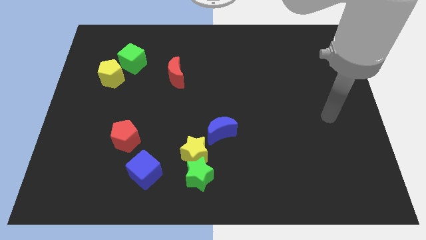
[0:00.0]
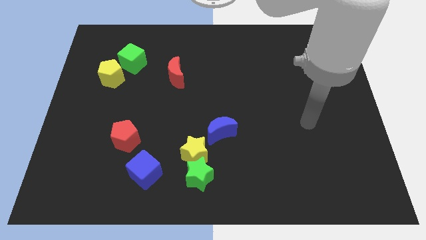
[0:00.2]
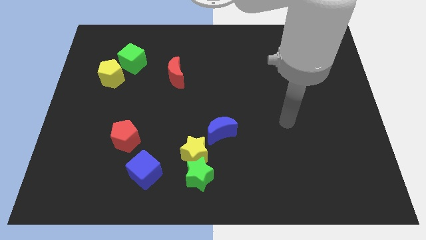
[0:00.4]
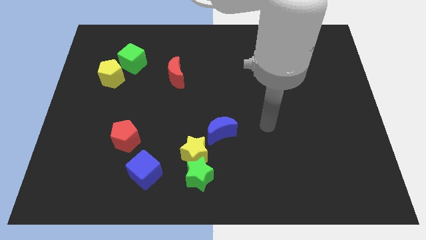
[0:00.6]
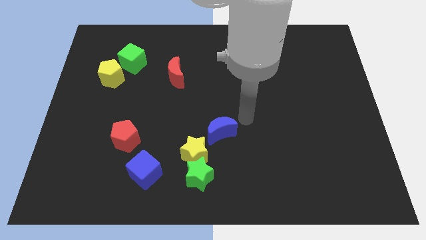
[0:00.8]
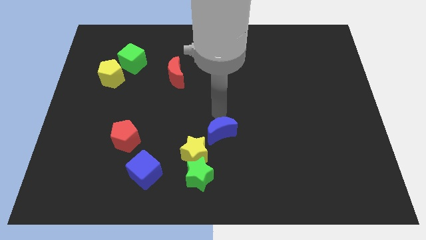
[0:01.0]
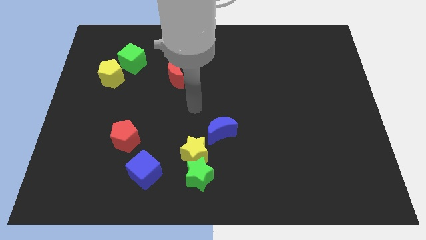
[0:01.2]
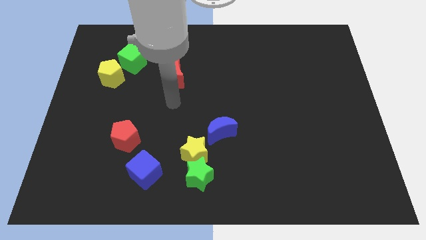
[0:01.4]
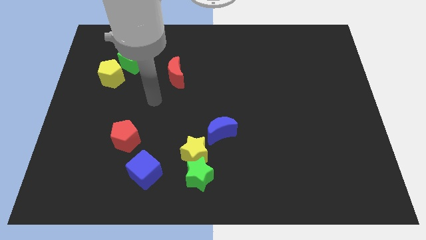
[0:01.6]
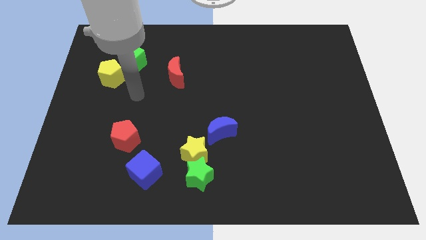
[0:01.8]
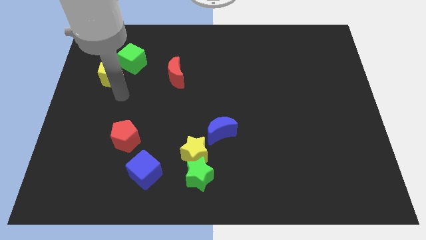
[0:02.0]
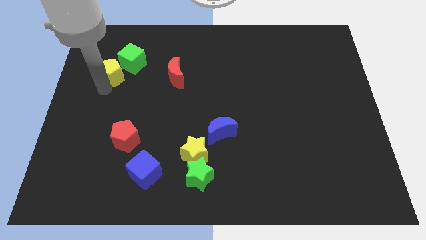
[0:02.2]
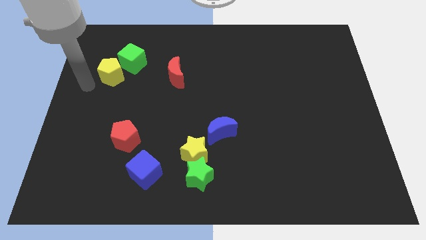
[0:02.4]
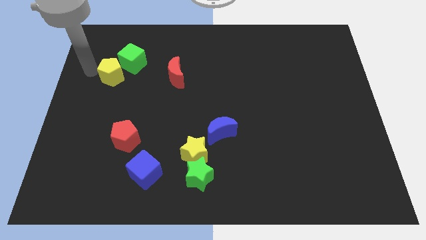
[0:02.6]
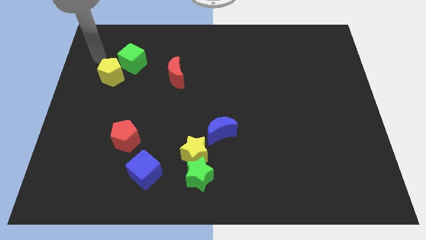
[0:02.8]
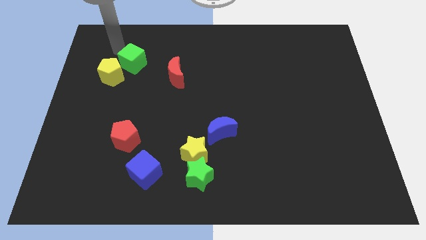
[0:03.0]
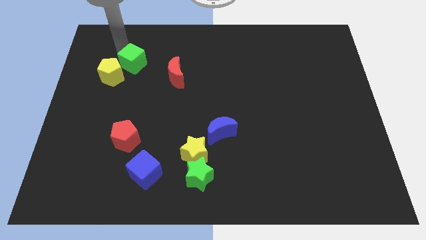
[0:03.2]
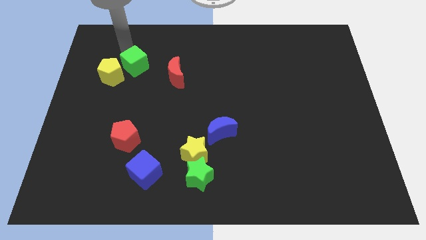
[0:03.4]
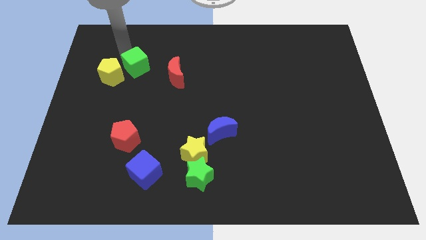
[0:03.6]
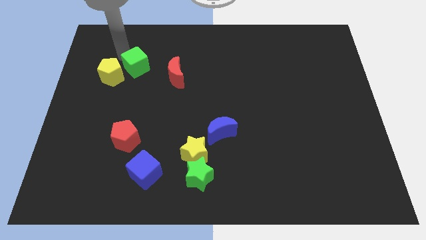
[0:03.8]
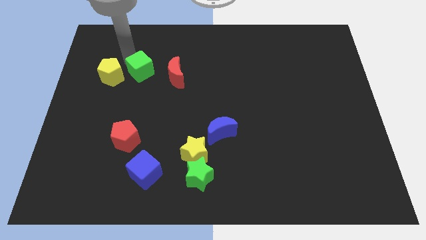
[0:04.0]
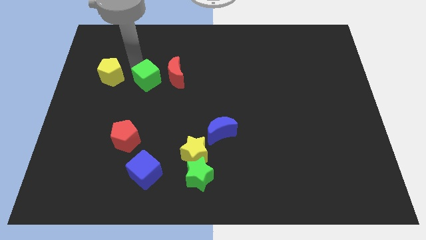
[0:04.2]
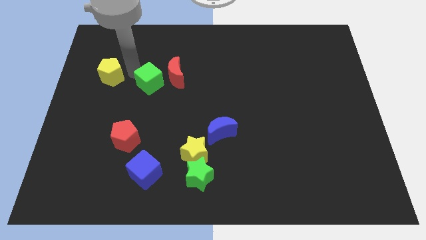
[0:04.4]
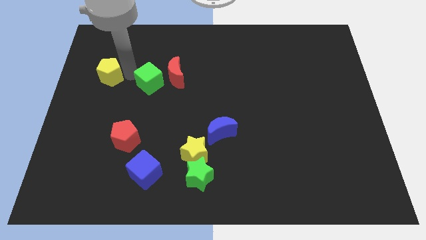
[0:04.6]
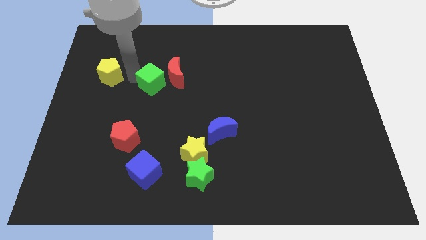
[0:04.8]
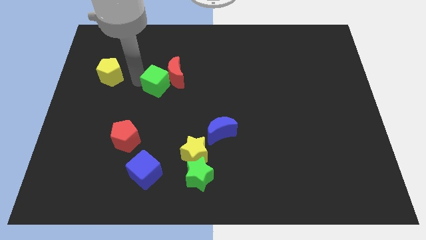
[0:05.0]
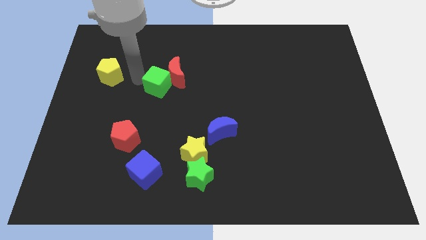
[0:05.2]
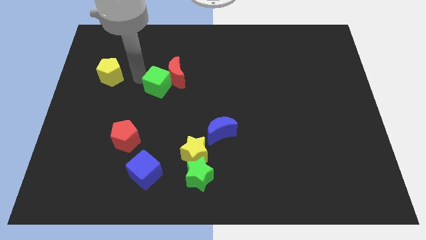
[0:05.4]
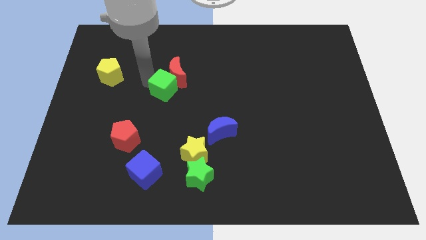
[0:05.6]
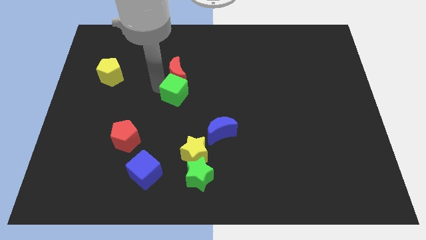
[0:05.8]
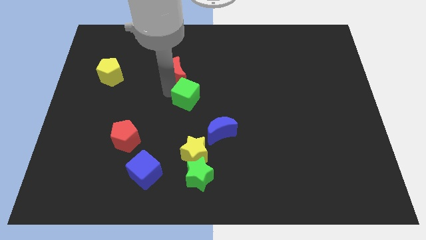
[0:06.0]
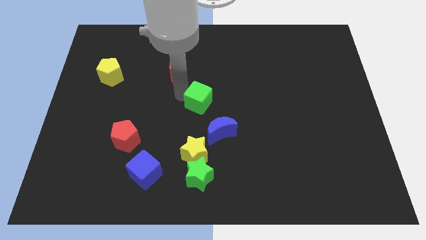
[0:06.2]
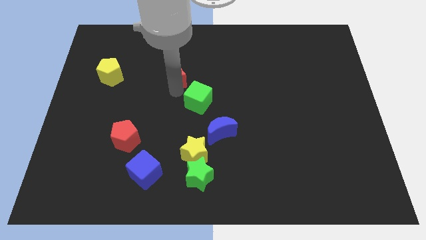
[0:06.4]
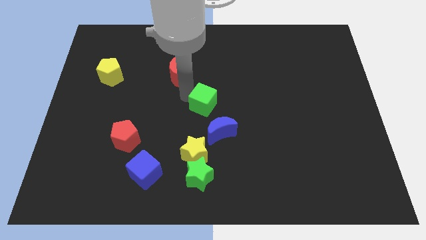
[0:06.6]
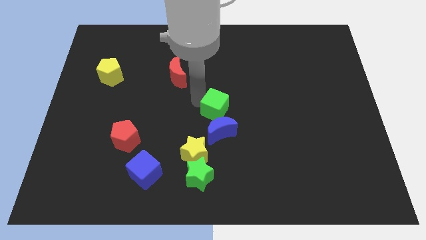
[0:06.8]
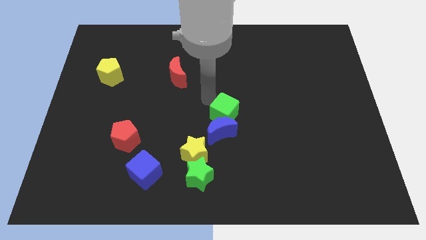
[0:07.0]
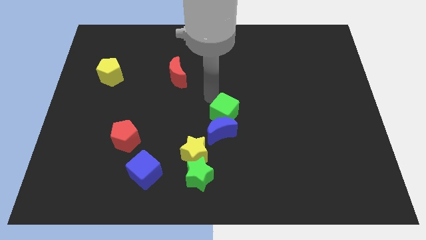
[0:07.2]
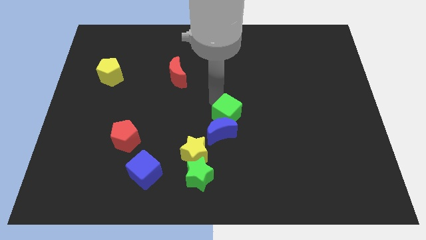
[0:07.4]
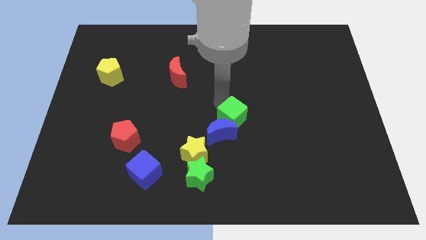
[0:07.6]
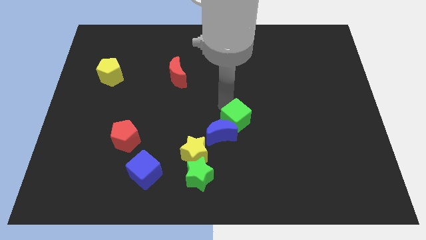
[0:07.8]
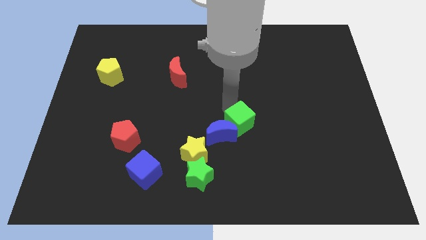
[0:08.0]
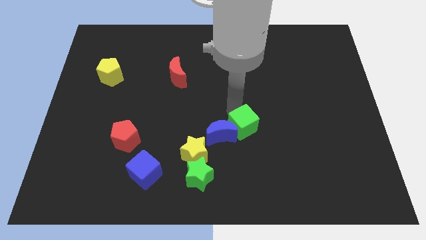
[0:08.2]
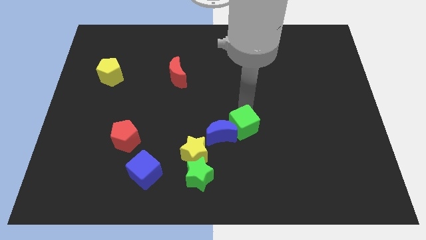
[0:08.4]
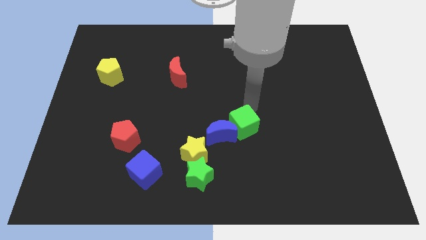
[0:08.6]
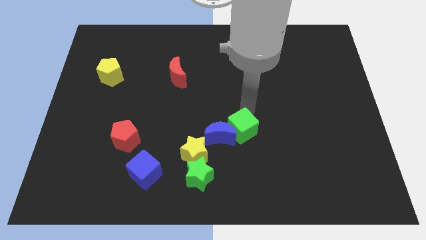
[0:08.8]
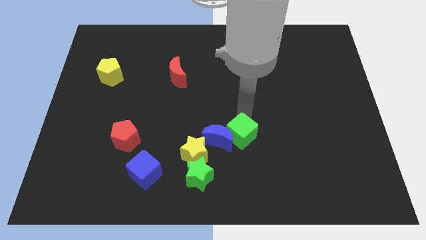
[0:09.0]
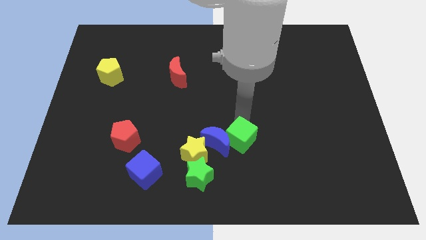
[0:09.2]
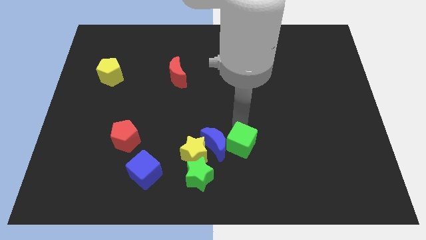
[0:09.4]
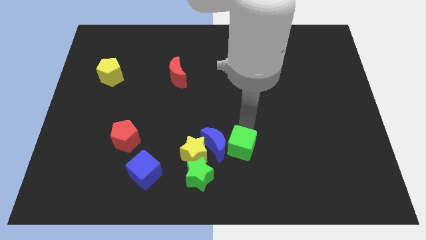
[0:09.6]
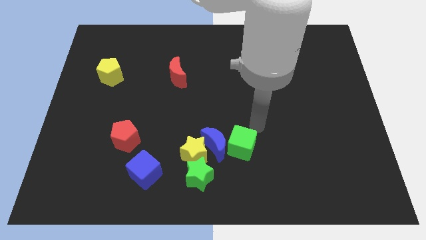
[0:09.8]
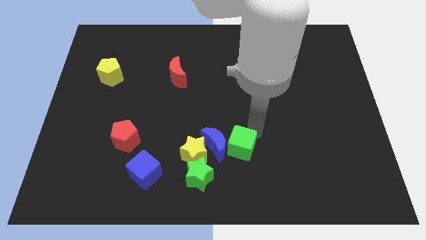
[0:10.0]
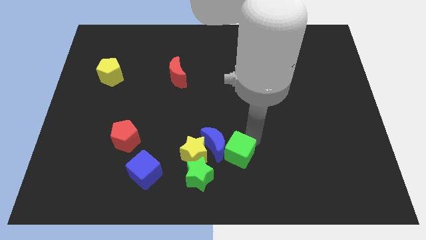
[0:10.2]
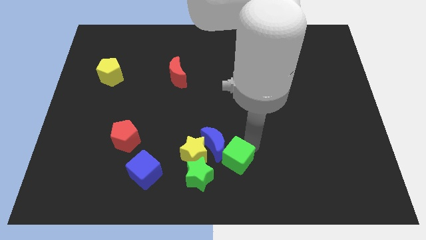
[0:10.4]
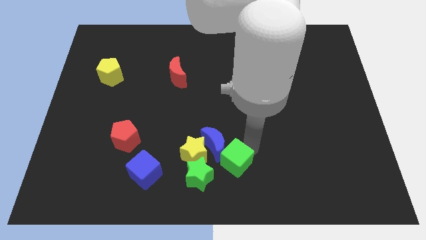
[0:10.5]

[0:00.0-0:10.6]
put the green cube to the bottom right side of the yellow star
